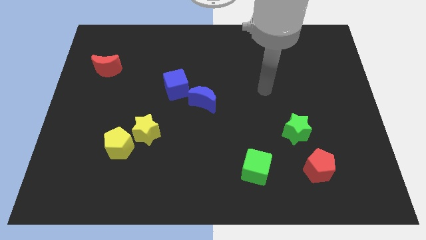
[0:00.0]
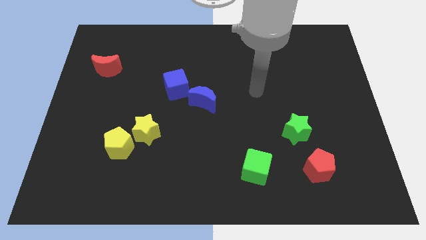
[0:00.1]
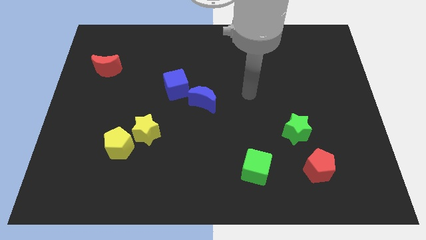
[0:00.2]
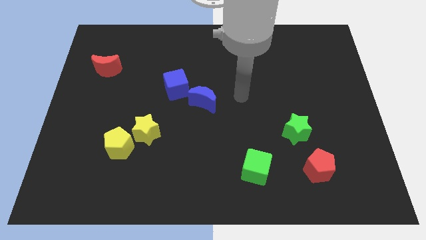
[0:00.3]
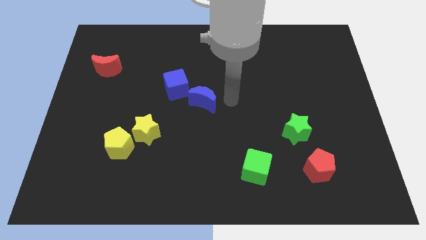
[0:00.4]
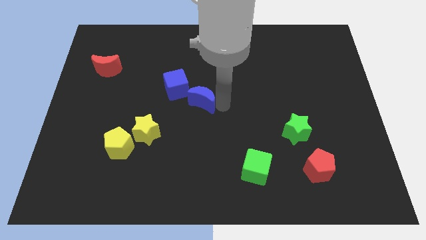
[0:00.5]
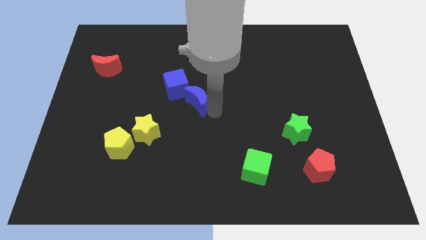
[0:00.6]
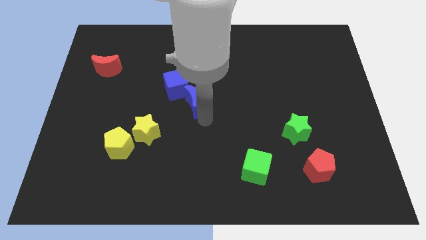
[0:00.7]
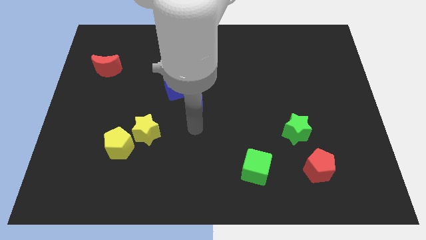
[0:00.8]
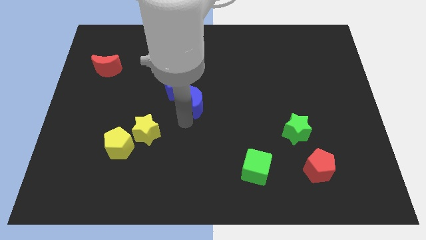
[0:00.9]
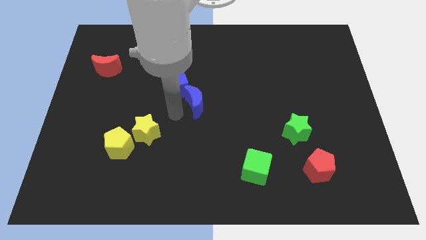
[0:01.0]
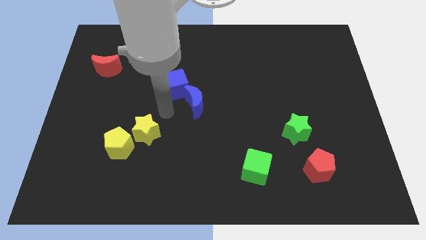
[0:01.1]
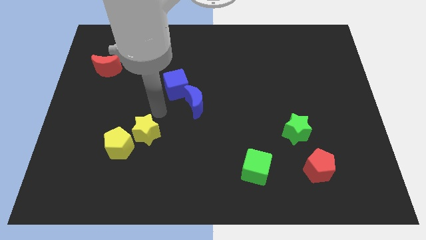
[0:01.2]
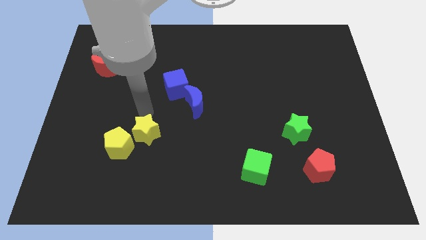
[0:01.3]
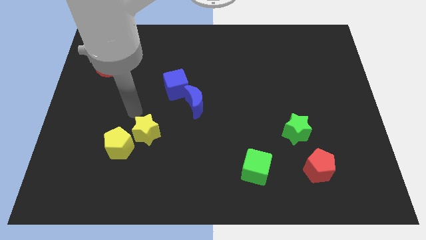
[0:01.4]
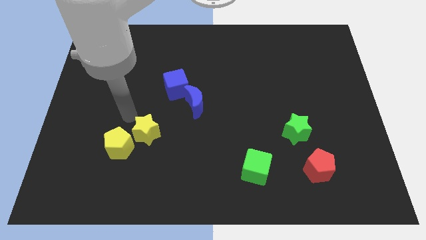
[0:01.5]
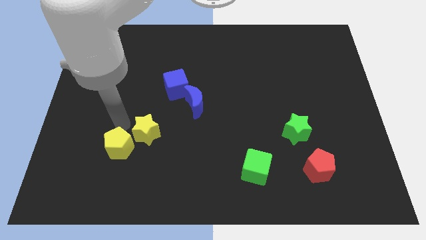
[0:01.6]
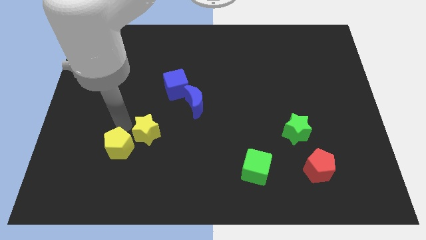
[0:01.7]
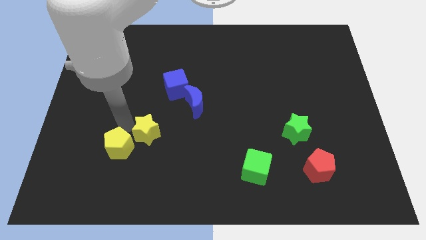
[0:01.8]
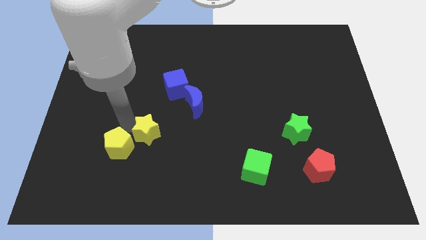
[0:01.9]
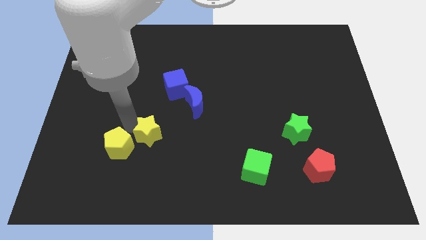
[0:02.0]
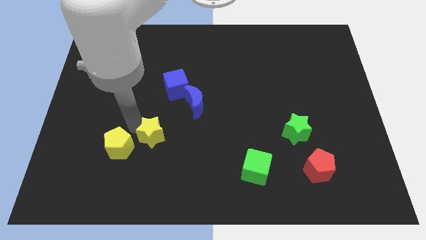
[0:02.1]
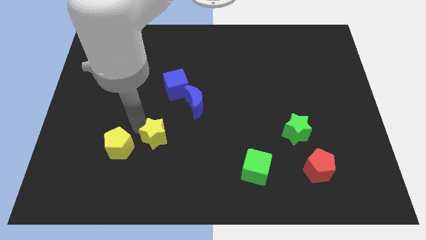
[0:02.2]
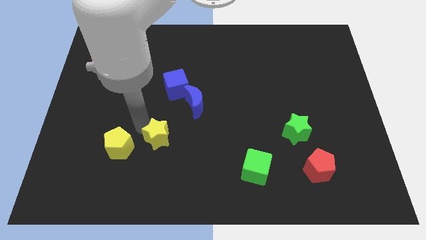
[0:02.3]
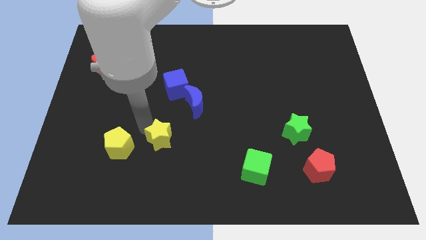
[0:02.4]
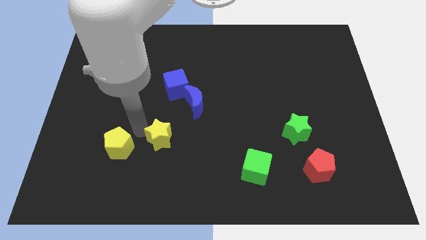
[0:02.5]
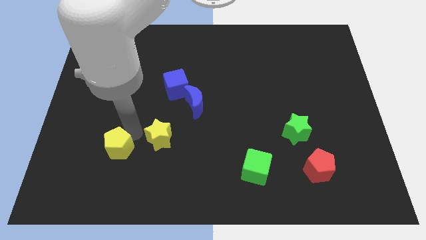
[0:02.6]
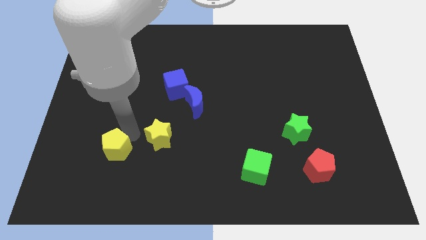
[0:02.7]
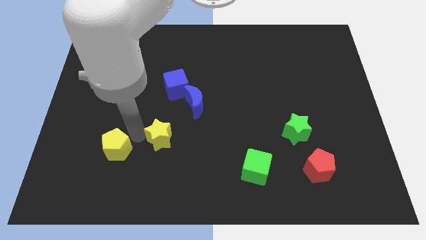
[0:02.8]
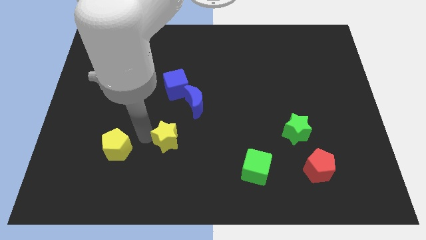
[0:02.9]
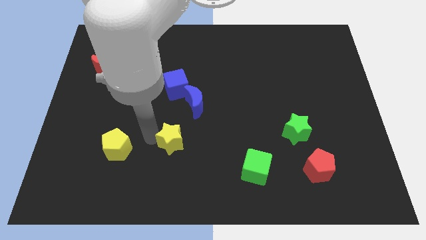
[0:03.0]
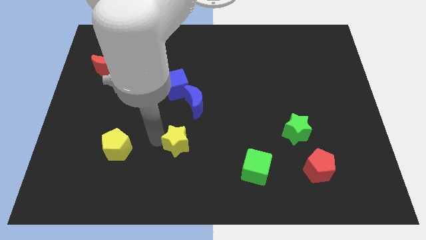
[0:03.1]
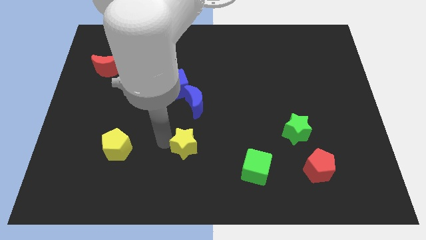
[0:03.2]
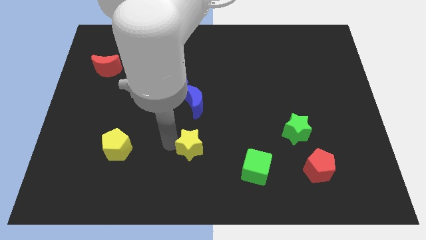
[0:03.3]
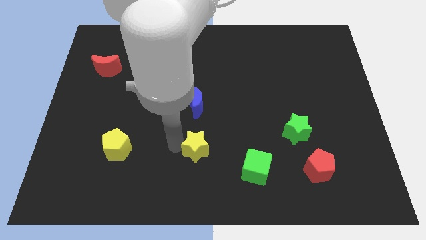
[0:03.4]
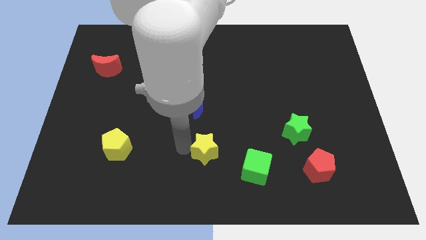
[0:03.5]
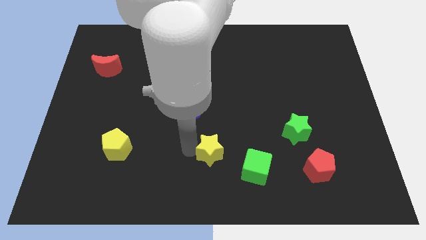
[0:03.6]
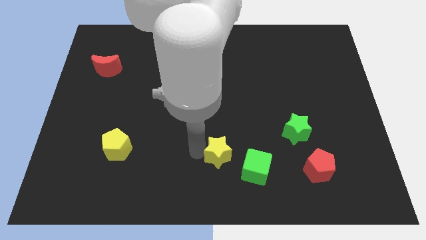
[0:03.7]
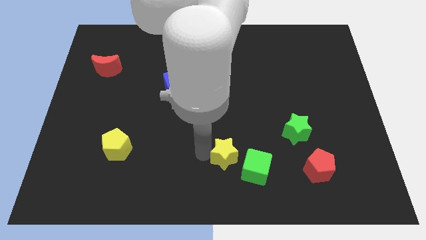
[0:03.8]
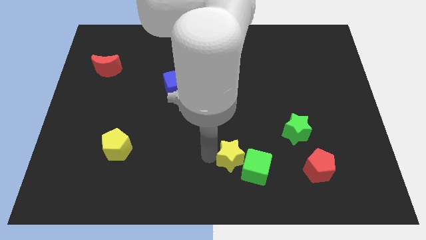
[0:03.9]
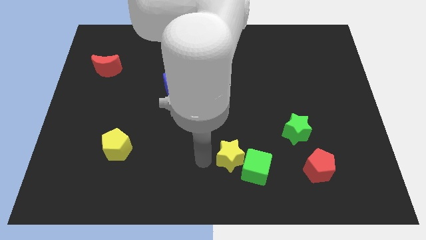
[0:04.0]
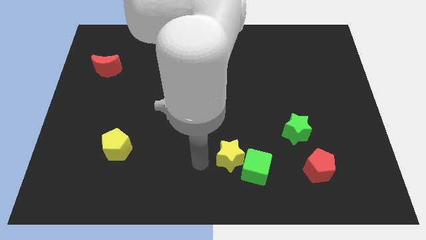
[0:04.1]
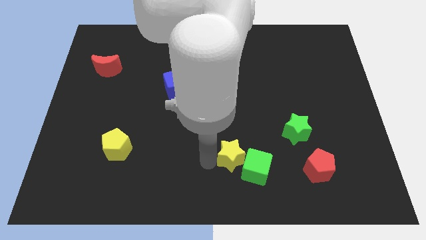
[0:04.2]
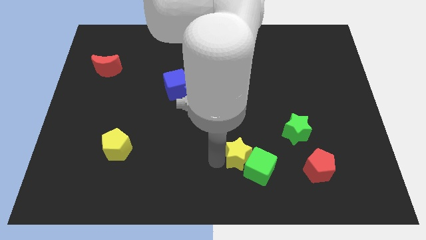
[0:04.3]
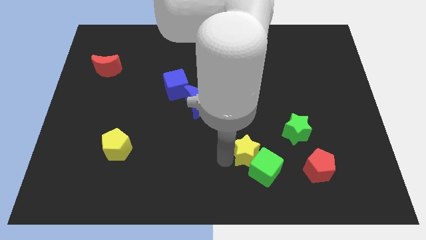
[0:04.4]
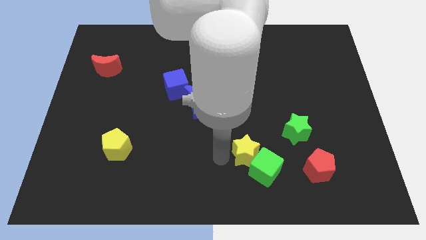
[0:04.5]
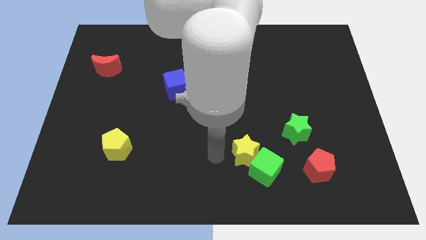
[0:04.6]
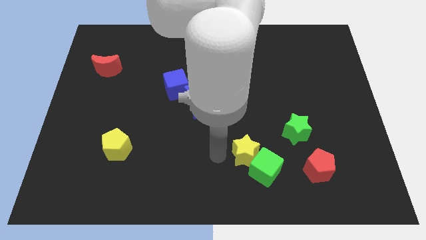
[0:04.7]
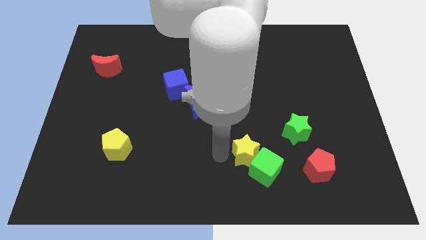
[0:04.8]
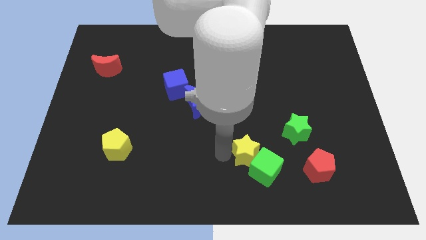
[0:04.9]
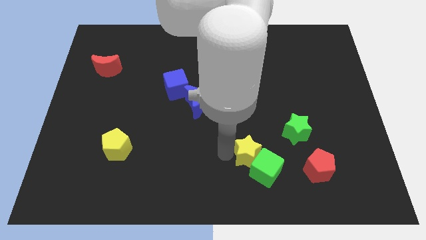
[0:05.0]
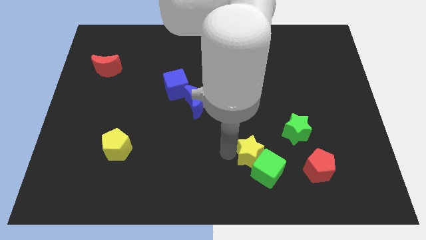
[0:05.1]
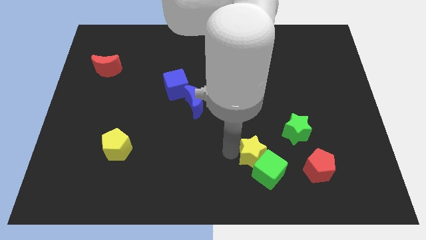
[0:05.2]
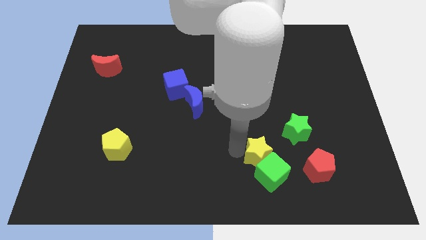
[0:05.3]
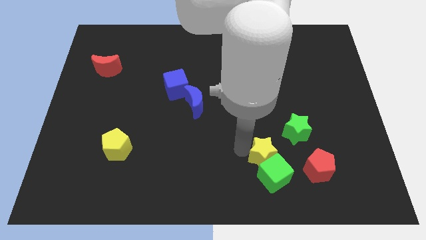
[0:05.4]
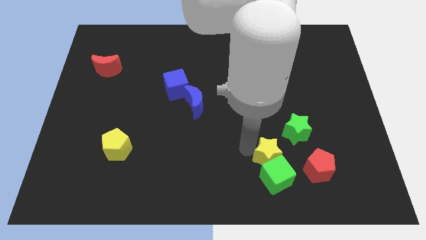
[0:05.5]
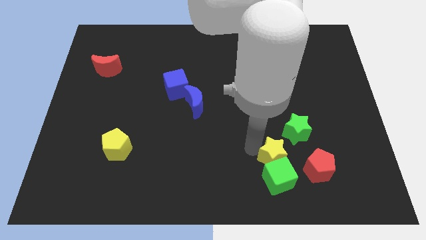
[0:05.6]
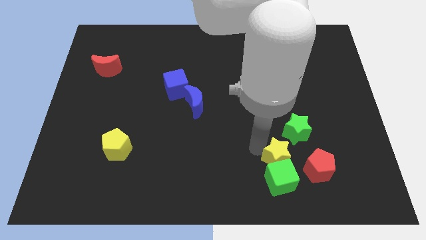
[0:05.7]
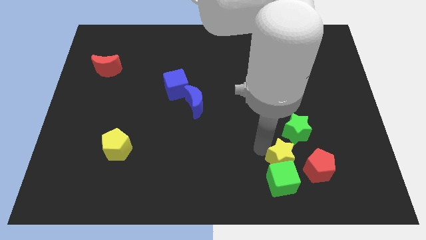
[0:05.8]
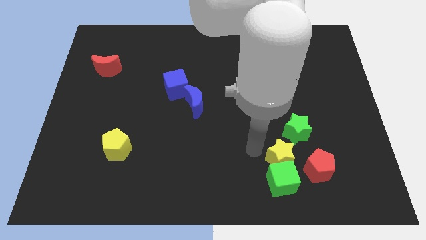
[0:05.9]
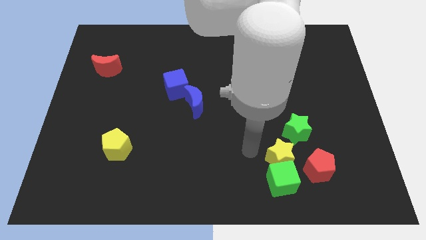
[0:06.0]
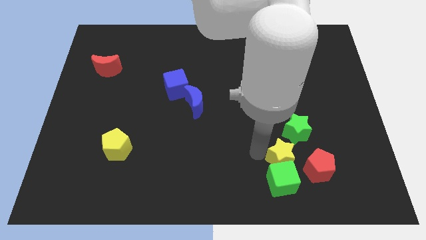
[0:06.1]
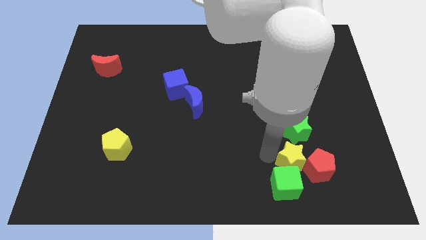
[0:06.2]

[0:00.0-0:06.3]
slide the yellow star towards the red pentagon

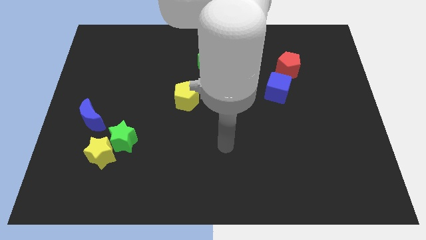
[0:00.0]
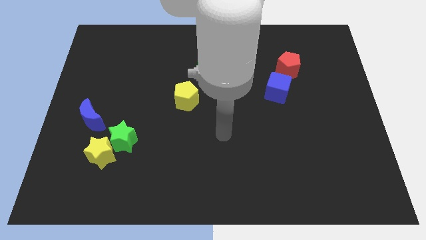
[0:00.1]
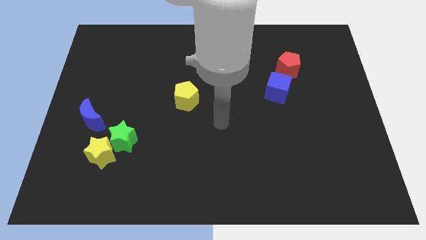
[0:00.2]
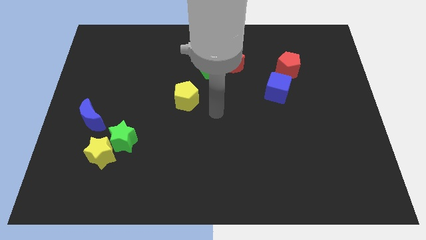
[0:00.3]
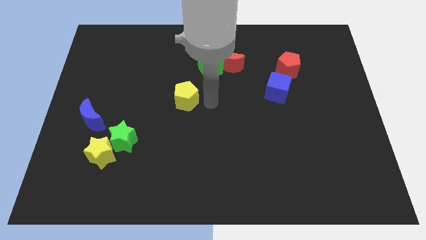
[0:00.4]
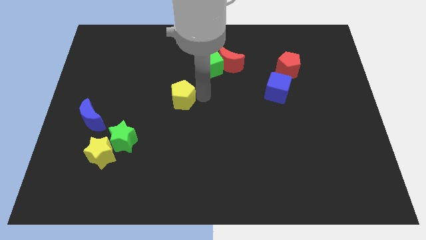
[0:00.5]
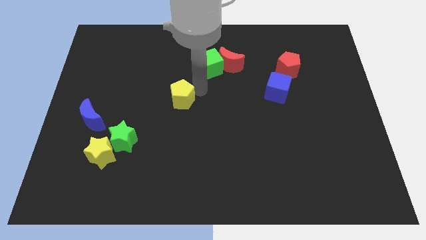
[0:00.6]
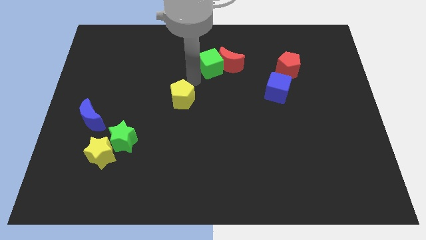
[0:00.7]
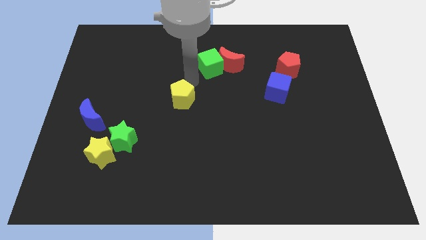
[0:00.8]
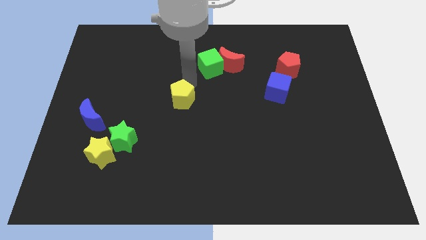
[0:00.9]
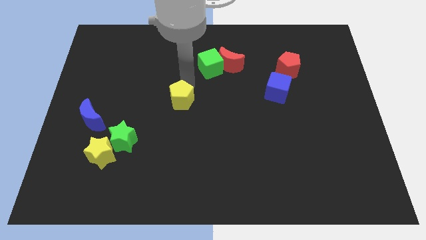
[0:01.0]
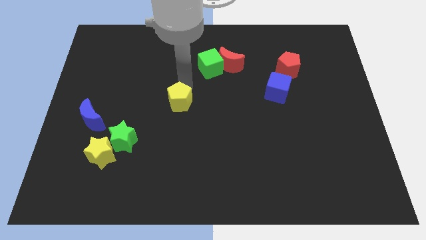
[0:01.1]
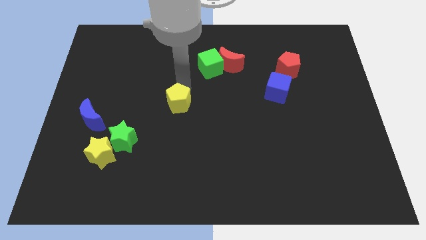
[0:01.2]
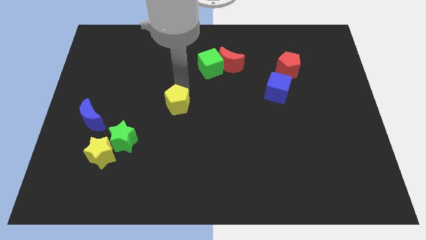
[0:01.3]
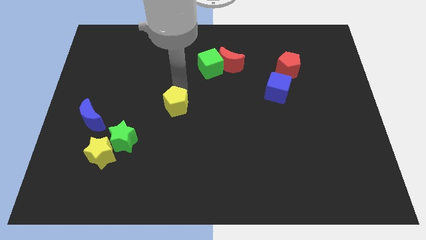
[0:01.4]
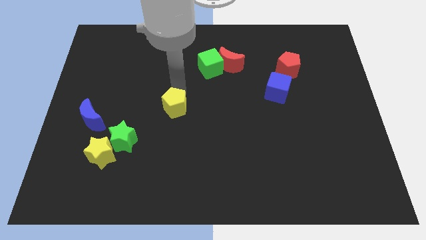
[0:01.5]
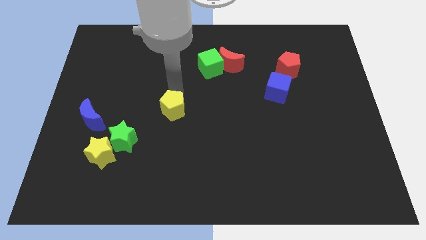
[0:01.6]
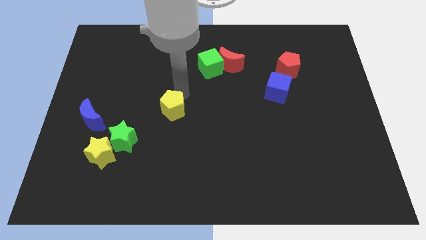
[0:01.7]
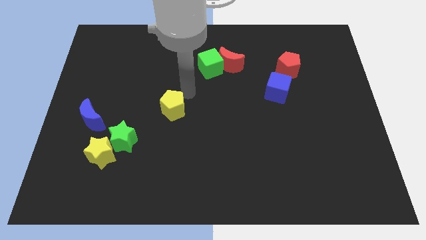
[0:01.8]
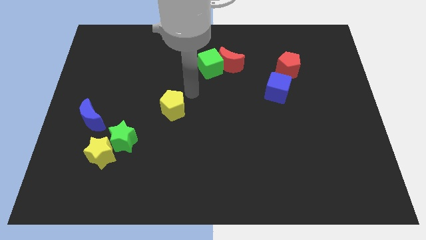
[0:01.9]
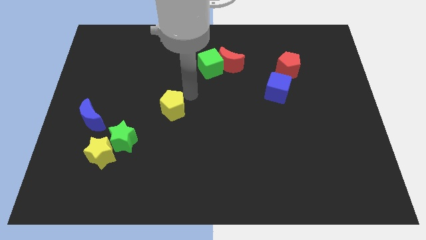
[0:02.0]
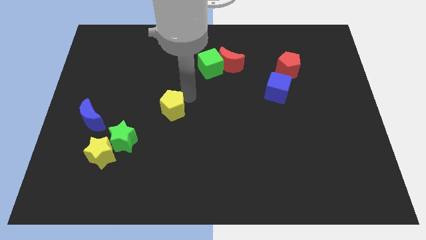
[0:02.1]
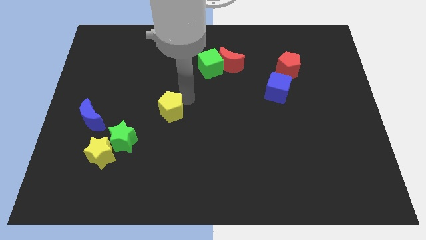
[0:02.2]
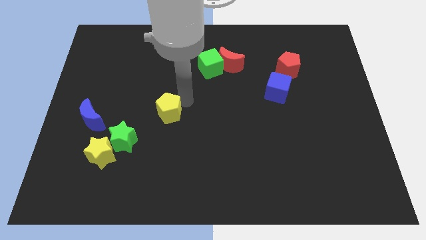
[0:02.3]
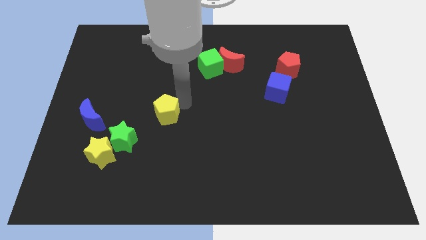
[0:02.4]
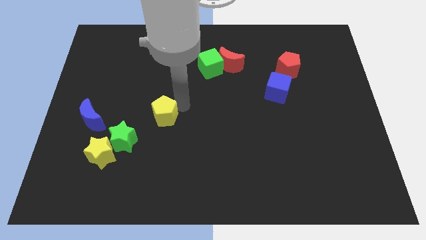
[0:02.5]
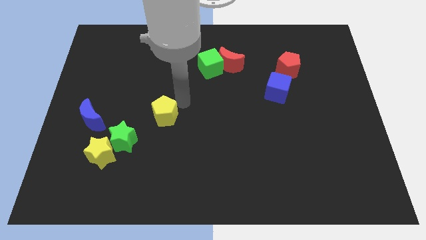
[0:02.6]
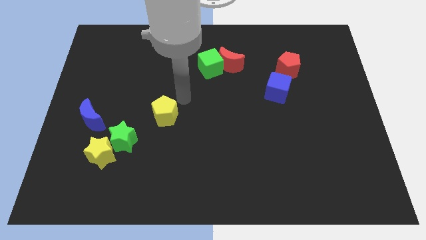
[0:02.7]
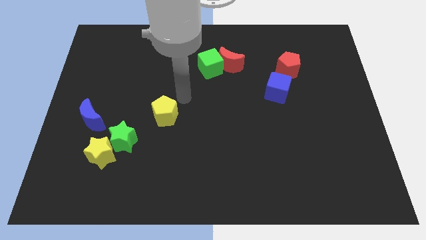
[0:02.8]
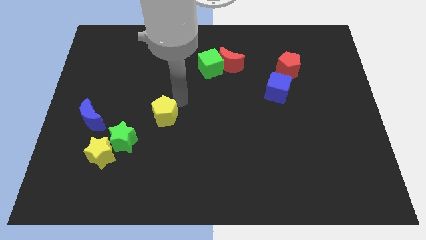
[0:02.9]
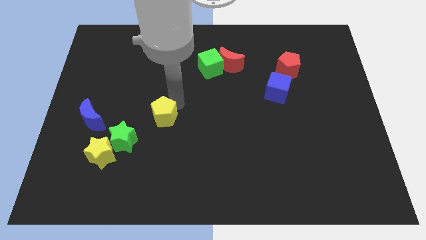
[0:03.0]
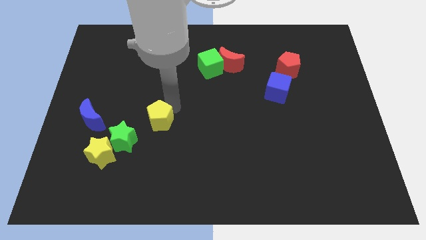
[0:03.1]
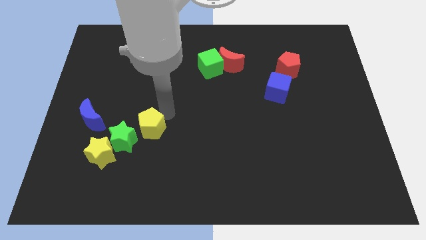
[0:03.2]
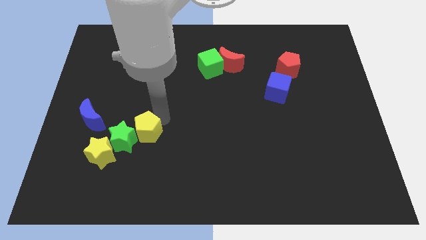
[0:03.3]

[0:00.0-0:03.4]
push the yellow pentagon towards the green star
